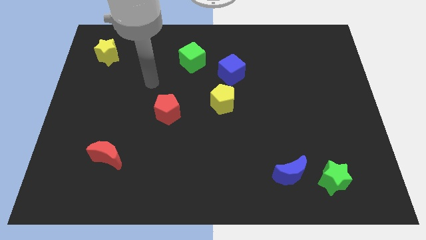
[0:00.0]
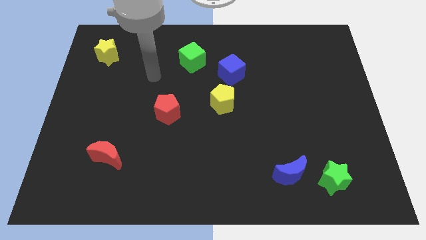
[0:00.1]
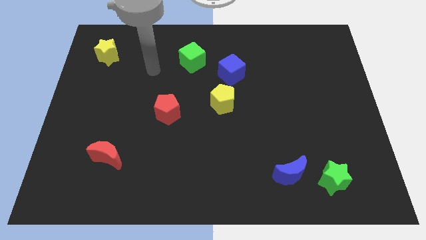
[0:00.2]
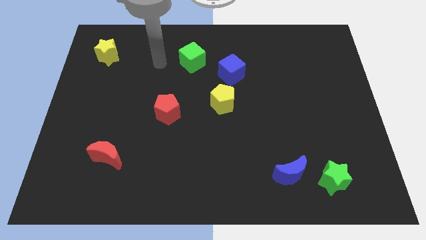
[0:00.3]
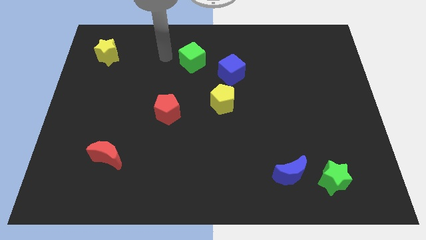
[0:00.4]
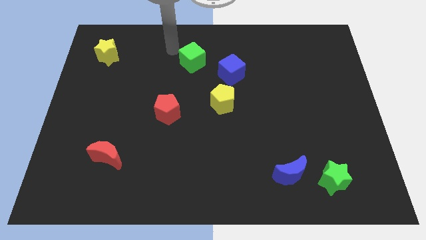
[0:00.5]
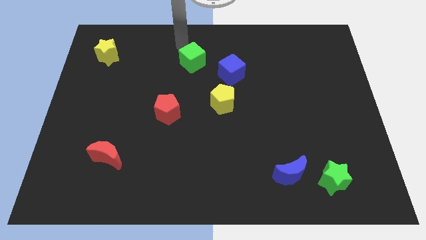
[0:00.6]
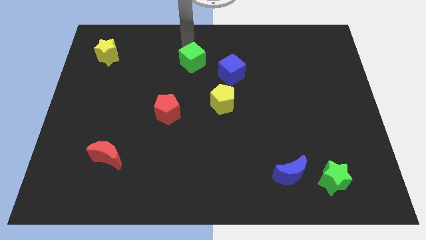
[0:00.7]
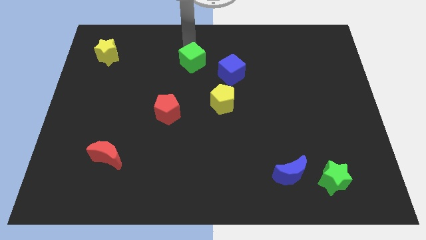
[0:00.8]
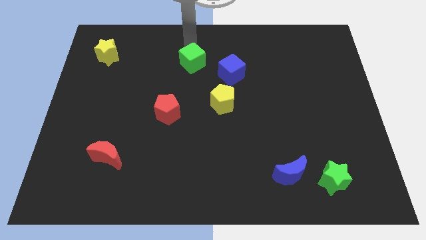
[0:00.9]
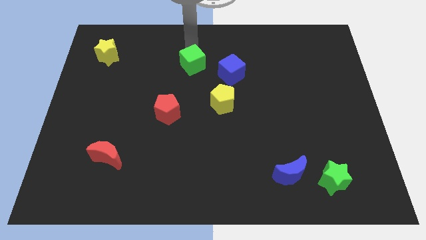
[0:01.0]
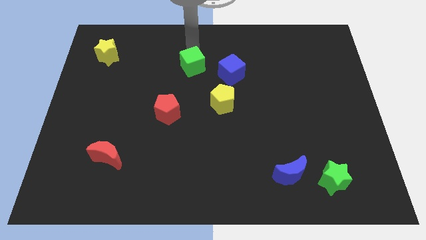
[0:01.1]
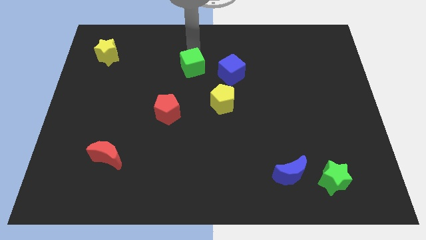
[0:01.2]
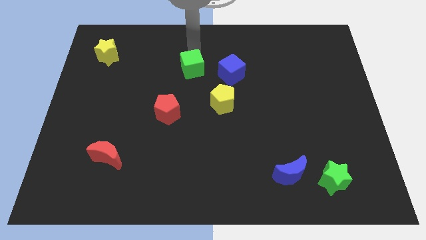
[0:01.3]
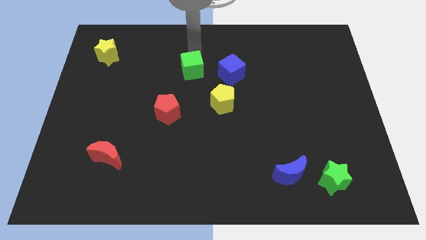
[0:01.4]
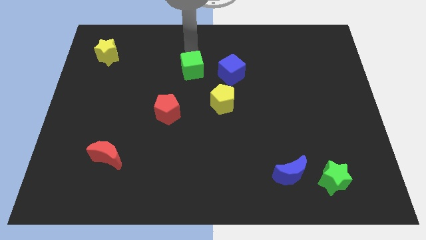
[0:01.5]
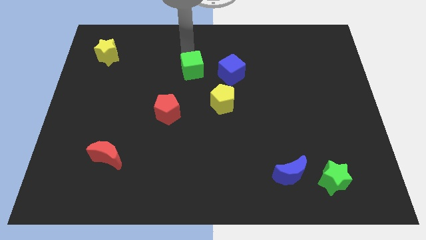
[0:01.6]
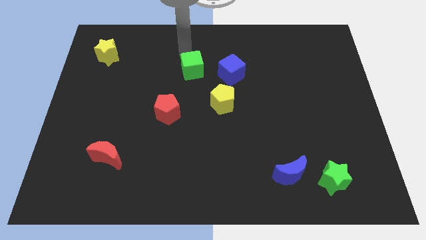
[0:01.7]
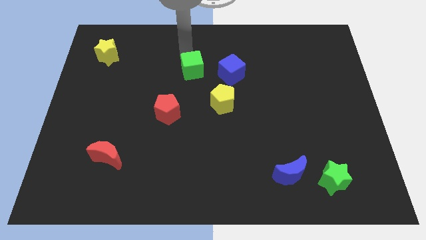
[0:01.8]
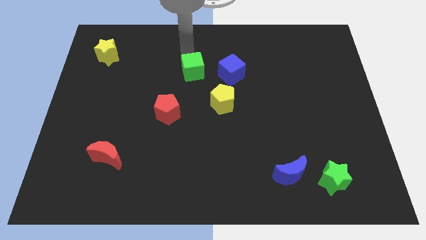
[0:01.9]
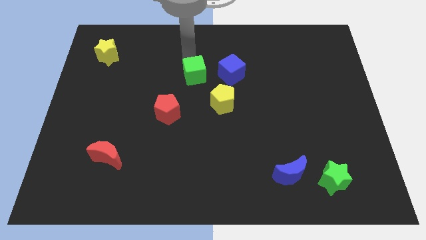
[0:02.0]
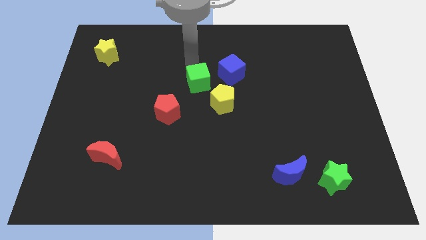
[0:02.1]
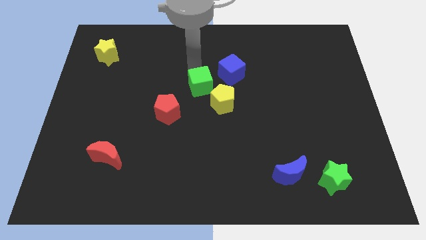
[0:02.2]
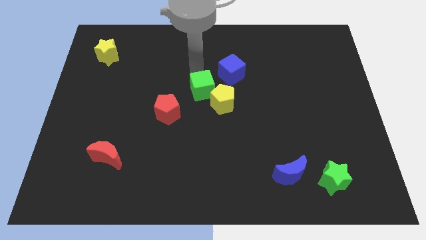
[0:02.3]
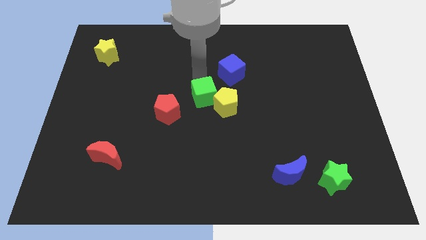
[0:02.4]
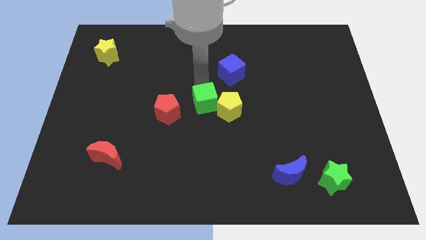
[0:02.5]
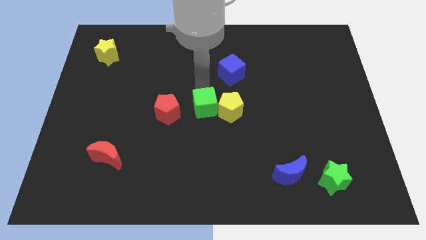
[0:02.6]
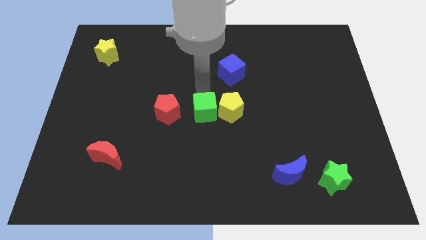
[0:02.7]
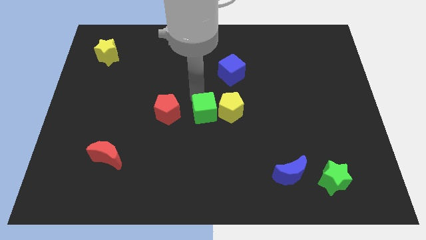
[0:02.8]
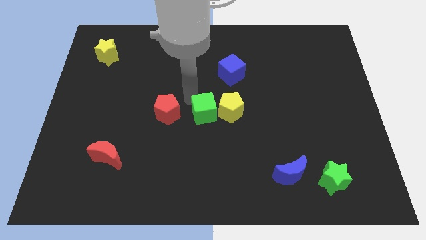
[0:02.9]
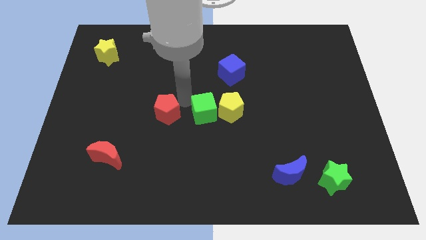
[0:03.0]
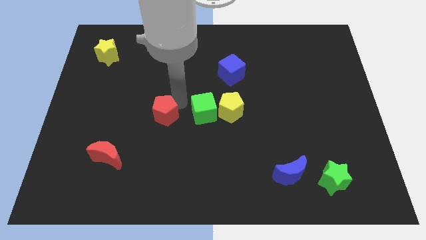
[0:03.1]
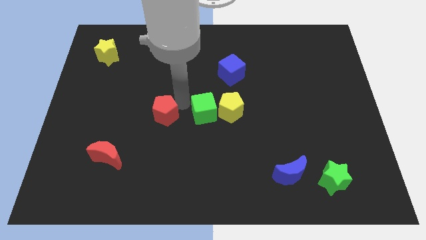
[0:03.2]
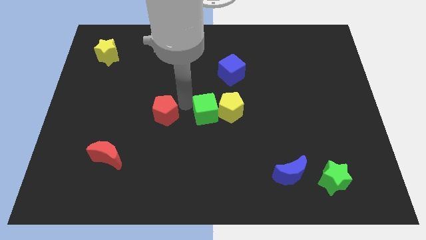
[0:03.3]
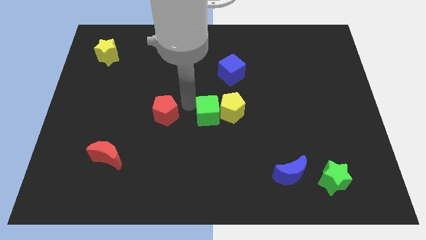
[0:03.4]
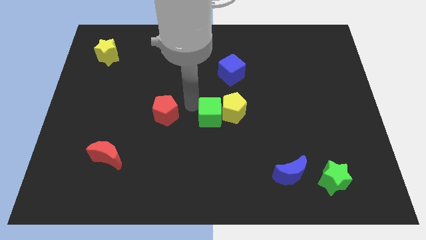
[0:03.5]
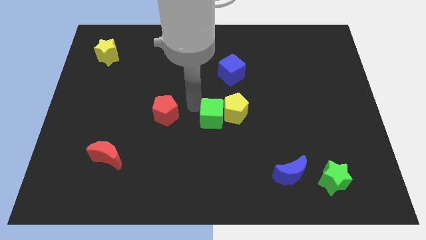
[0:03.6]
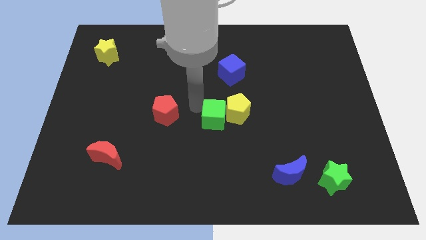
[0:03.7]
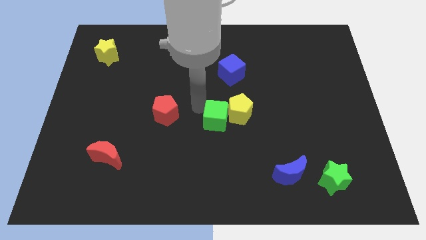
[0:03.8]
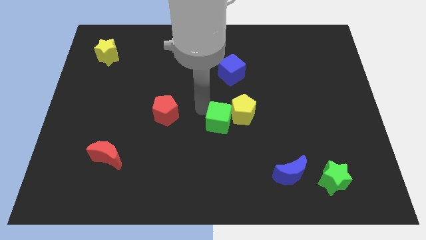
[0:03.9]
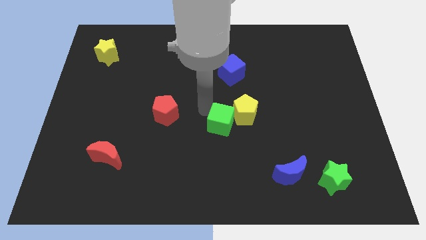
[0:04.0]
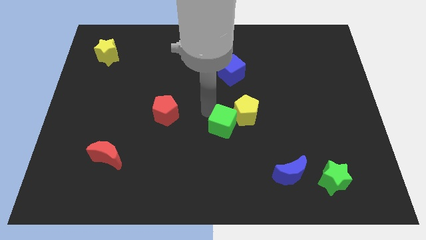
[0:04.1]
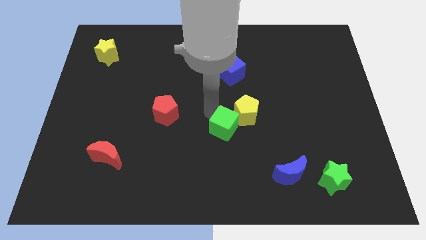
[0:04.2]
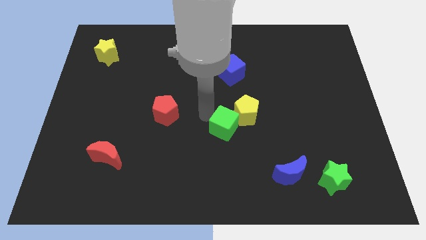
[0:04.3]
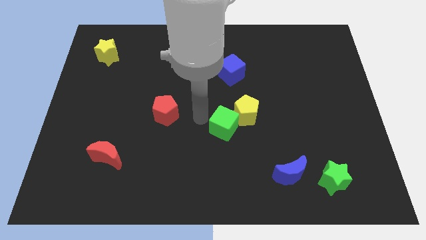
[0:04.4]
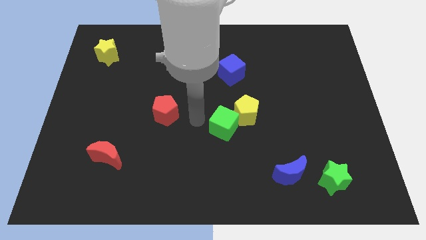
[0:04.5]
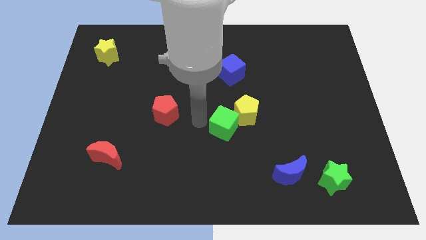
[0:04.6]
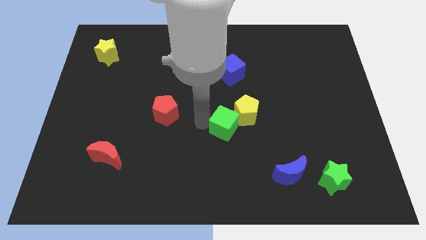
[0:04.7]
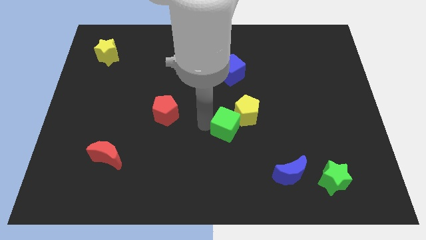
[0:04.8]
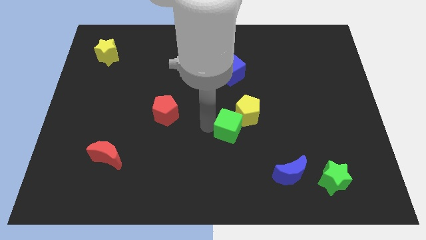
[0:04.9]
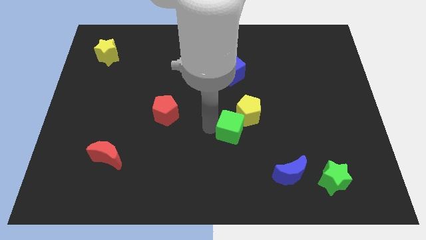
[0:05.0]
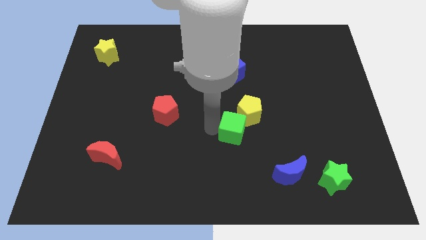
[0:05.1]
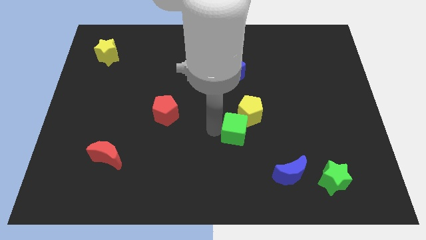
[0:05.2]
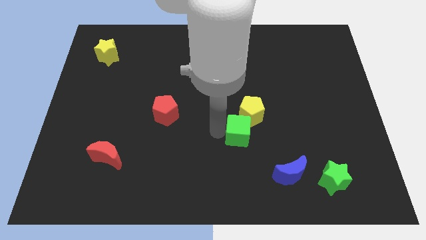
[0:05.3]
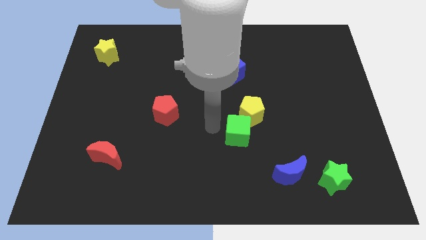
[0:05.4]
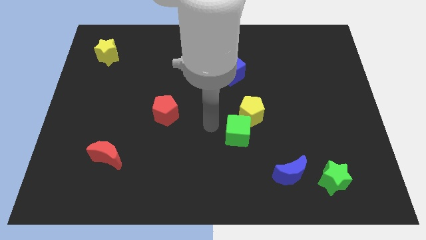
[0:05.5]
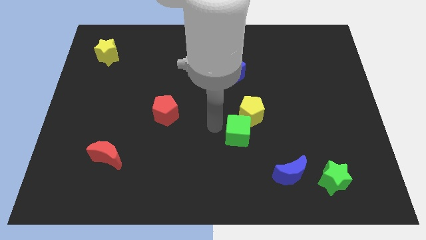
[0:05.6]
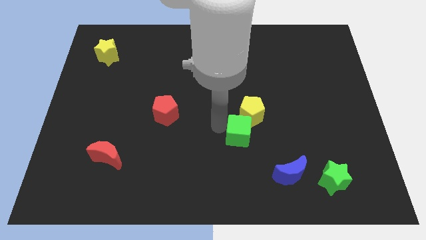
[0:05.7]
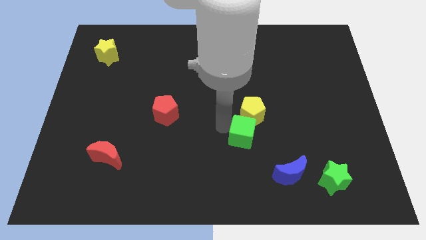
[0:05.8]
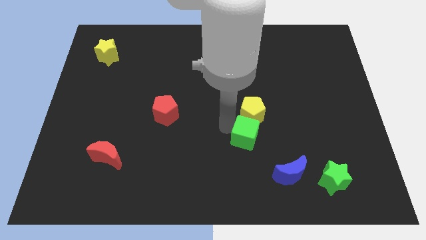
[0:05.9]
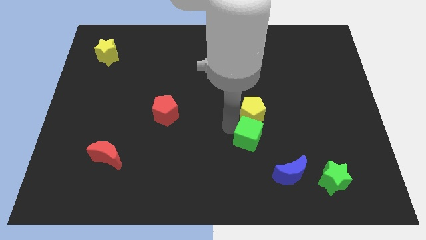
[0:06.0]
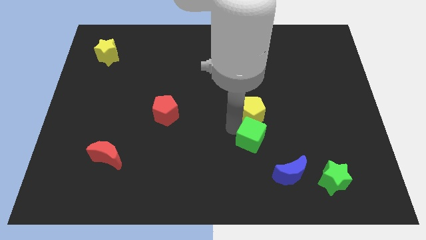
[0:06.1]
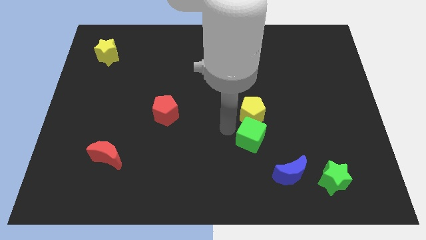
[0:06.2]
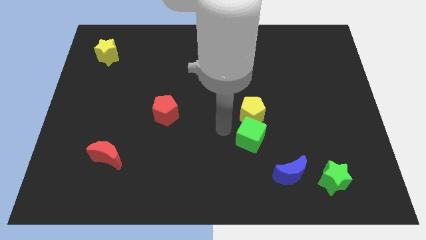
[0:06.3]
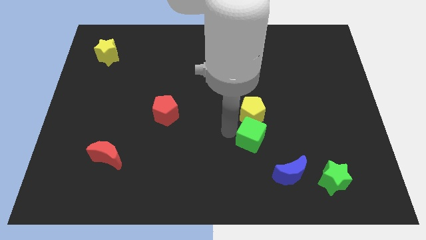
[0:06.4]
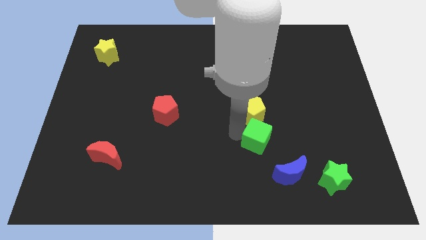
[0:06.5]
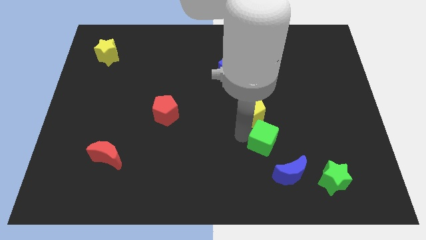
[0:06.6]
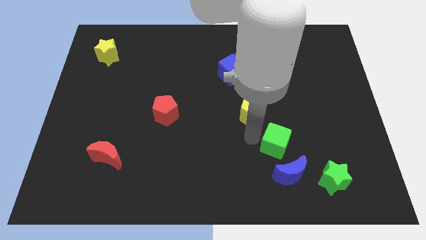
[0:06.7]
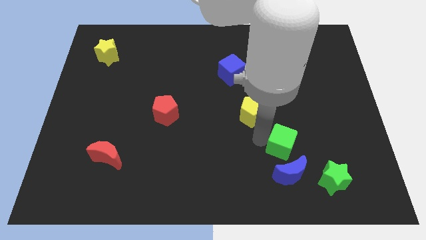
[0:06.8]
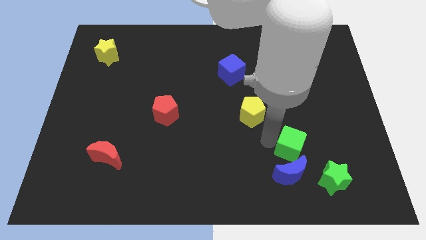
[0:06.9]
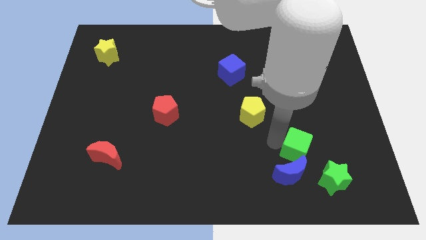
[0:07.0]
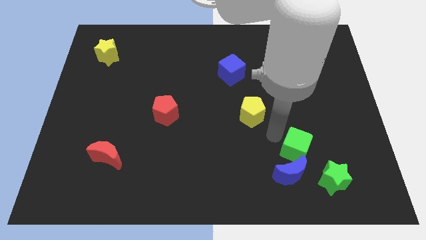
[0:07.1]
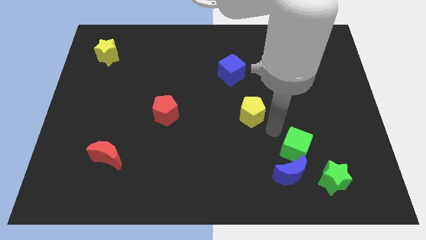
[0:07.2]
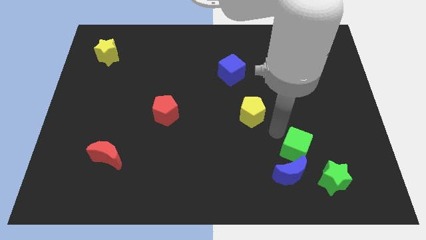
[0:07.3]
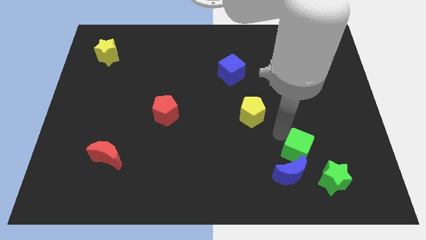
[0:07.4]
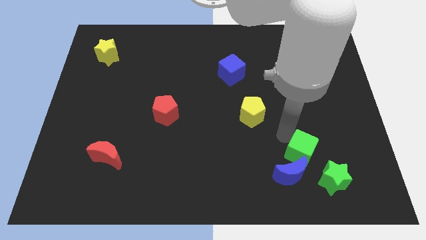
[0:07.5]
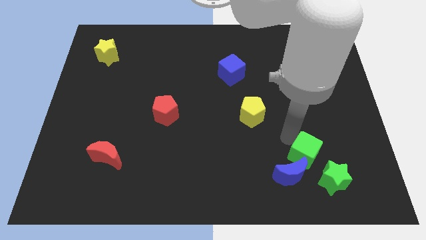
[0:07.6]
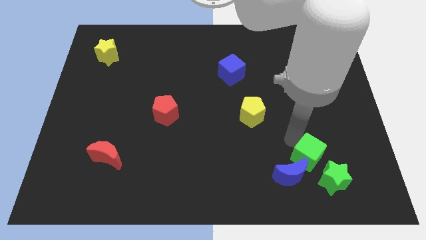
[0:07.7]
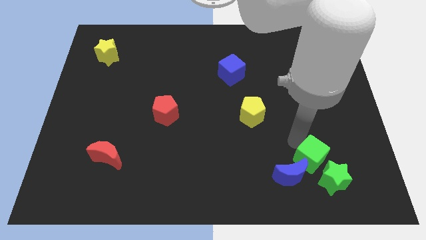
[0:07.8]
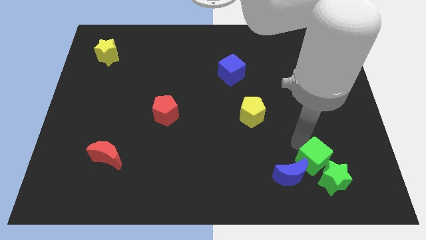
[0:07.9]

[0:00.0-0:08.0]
put the green cube towards the green star
